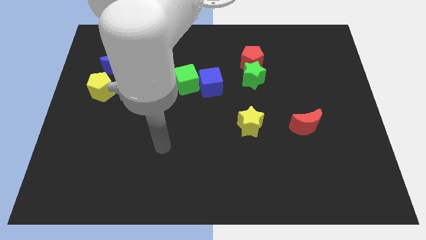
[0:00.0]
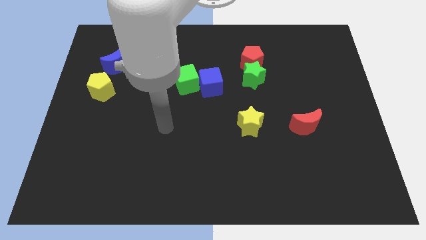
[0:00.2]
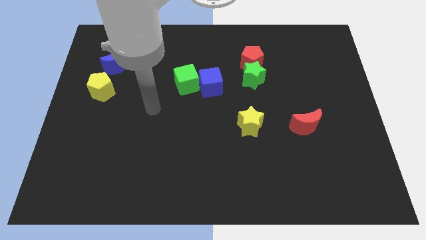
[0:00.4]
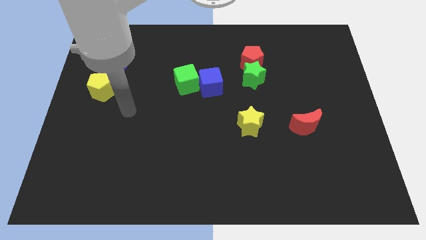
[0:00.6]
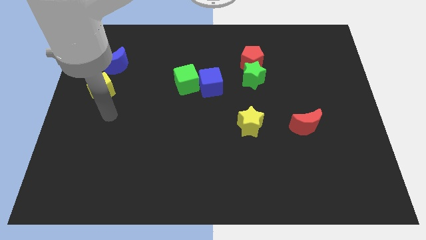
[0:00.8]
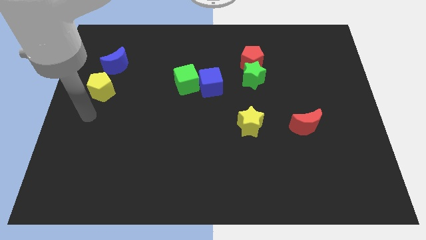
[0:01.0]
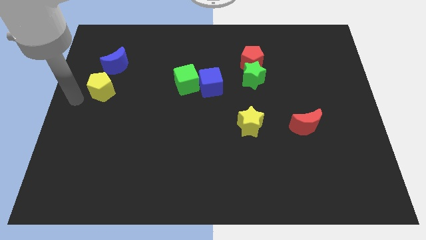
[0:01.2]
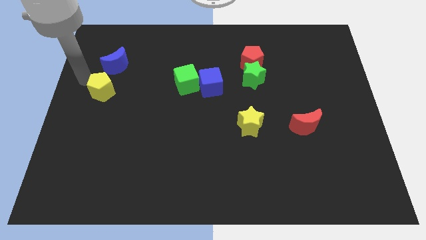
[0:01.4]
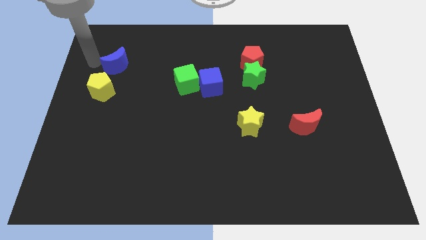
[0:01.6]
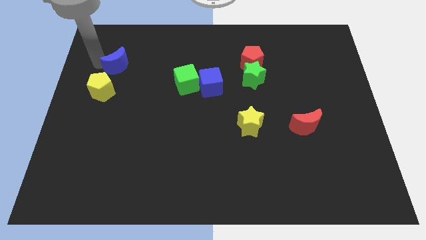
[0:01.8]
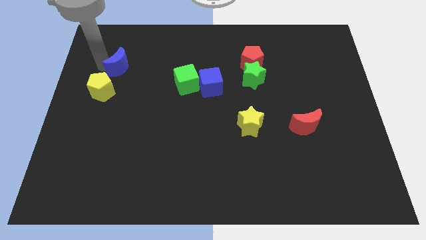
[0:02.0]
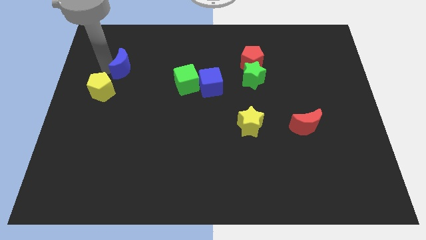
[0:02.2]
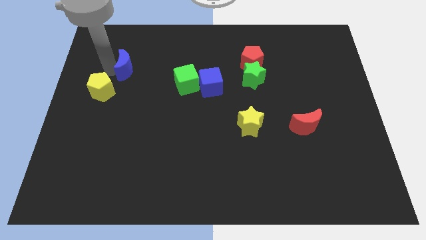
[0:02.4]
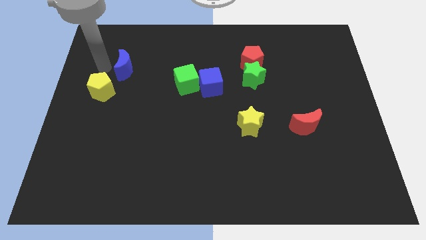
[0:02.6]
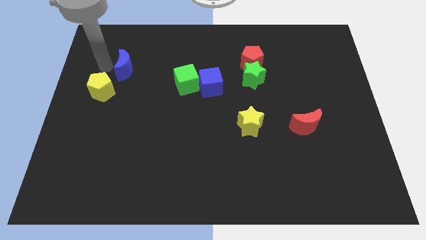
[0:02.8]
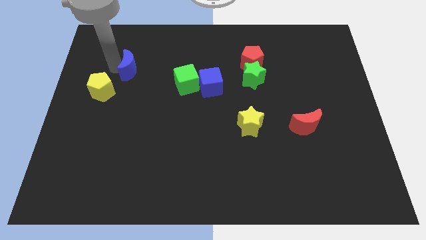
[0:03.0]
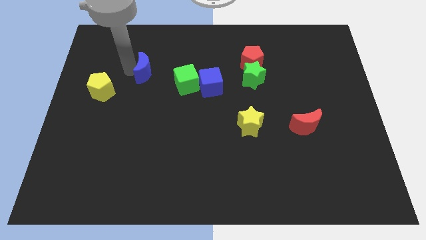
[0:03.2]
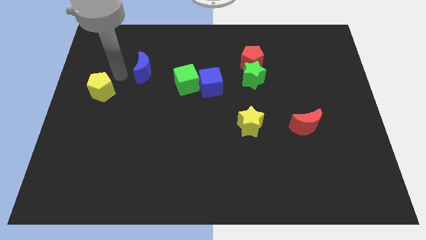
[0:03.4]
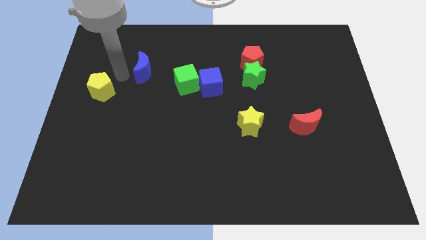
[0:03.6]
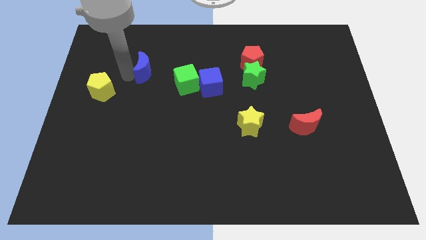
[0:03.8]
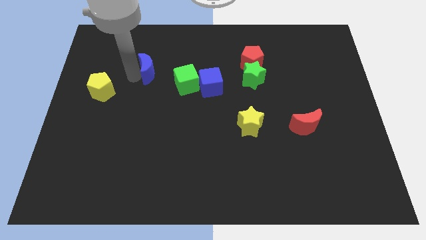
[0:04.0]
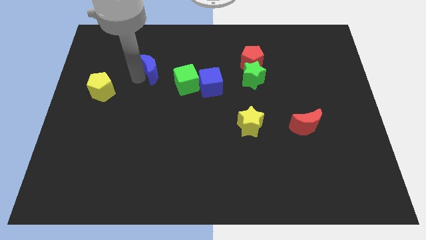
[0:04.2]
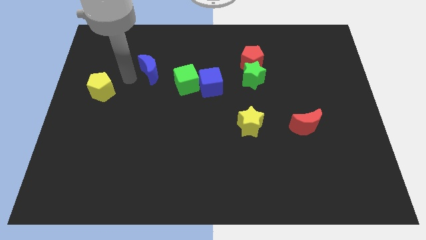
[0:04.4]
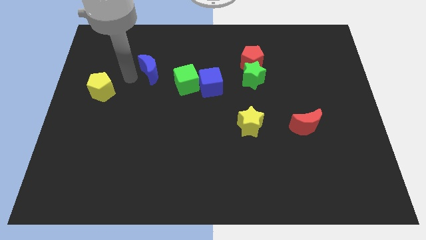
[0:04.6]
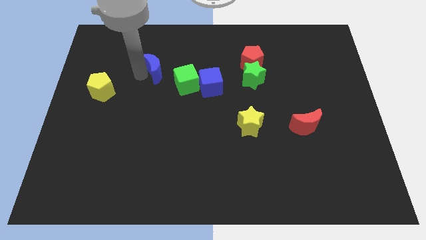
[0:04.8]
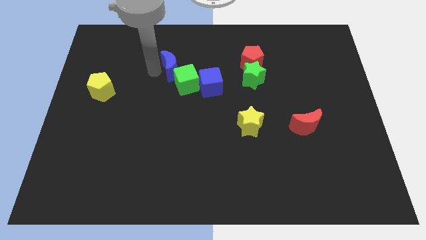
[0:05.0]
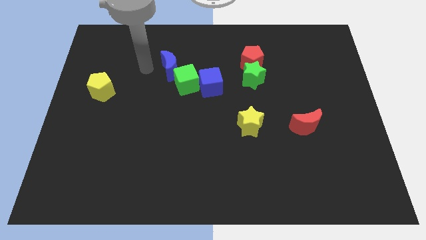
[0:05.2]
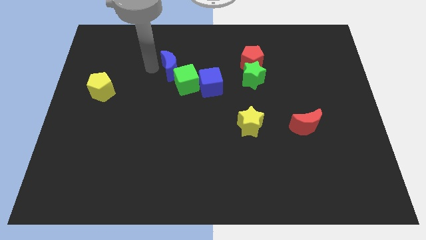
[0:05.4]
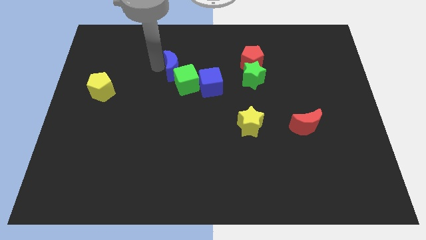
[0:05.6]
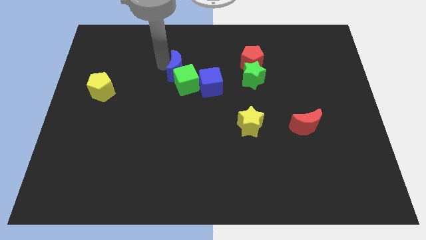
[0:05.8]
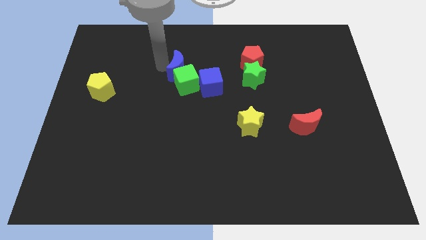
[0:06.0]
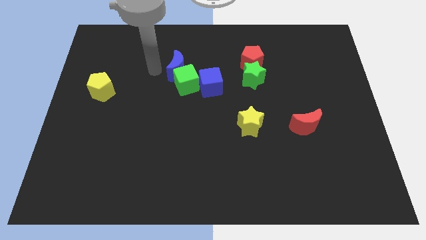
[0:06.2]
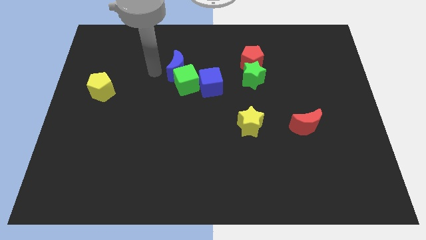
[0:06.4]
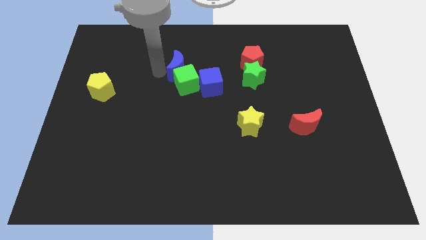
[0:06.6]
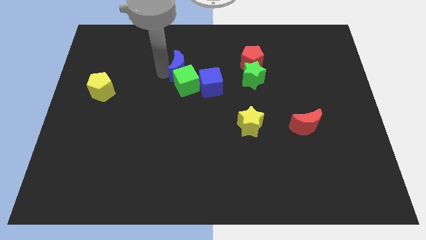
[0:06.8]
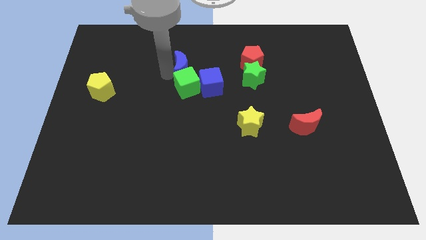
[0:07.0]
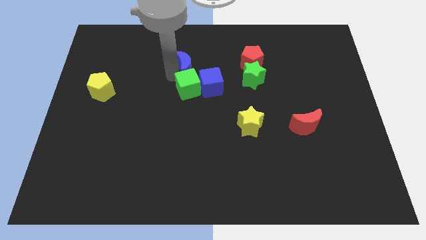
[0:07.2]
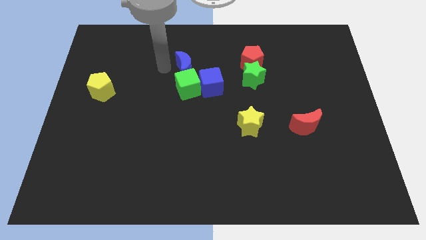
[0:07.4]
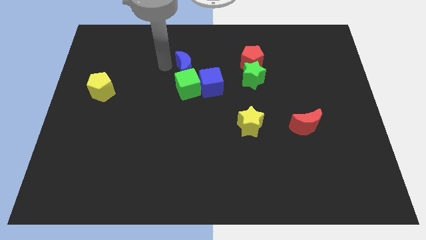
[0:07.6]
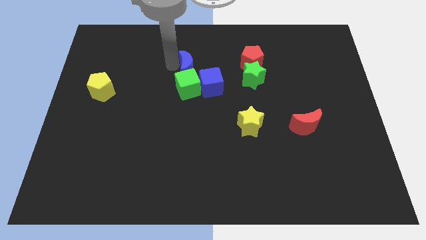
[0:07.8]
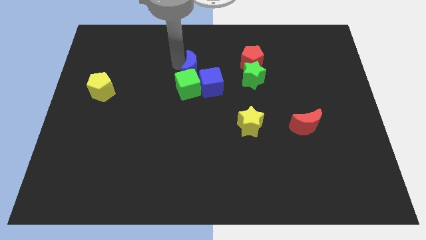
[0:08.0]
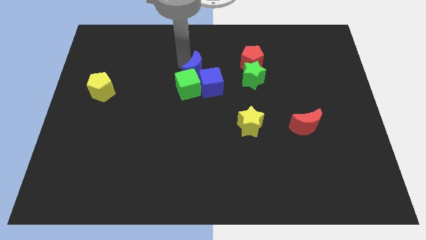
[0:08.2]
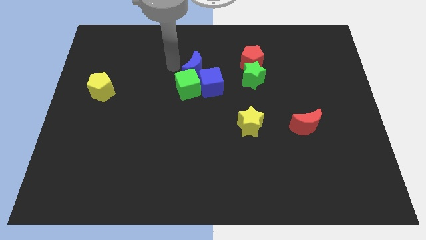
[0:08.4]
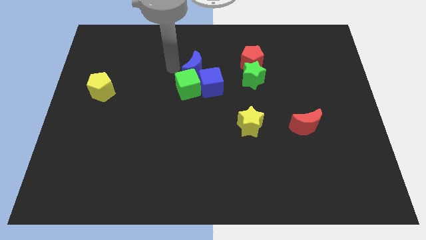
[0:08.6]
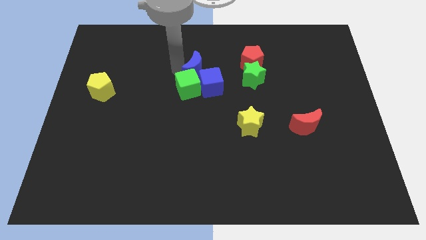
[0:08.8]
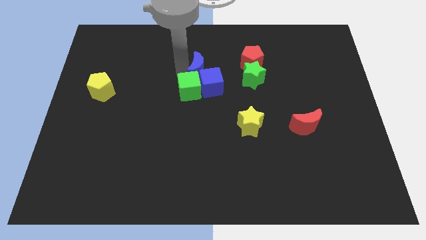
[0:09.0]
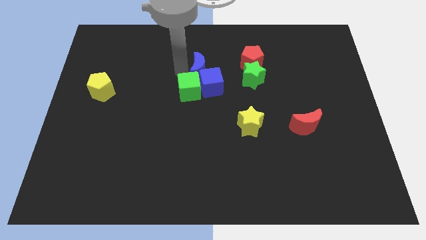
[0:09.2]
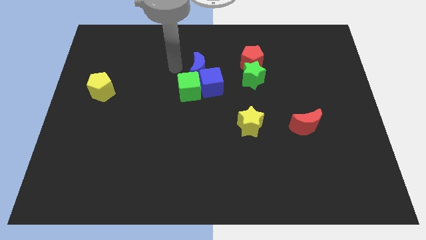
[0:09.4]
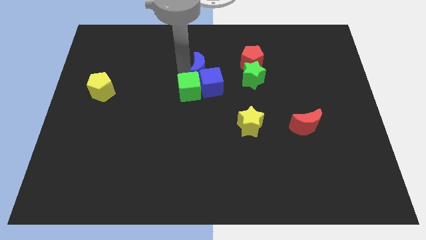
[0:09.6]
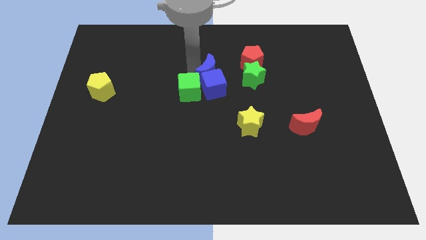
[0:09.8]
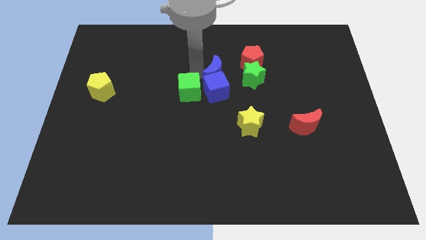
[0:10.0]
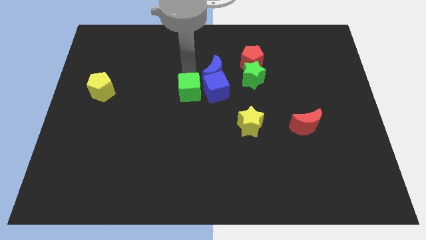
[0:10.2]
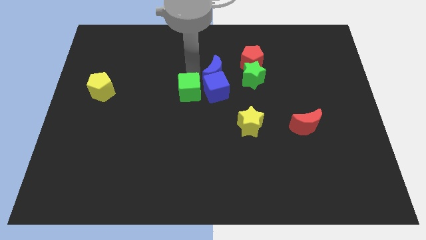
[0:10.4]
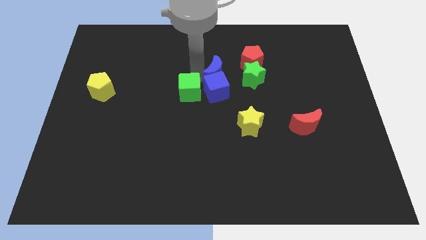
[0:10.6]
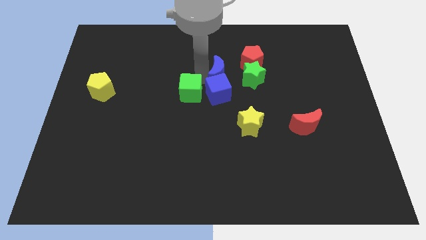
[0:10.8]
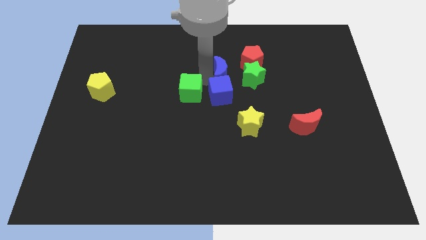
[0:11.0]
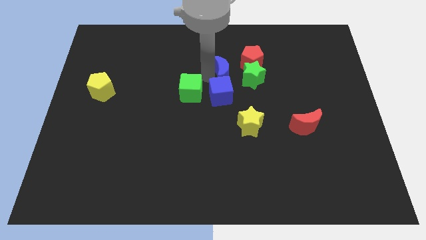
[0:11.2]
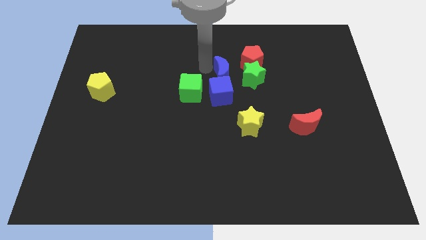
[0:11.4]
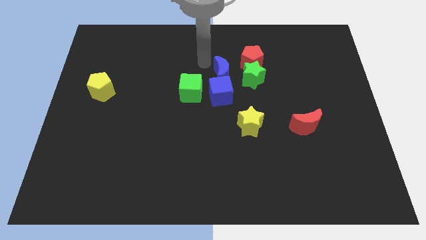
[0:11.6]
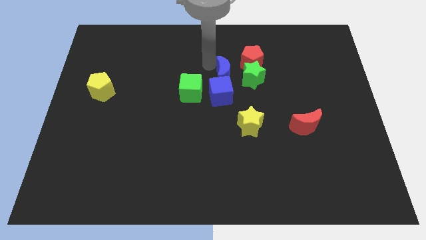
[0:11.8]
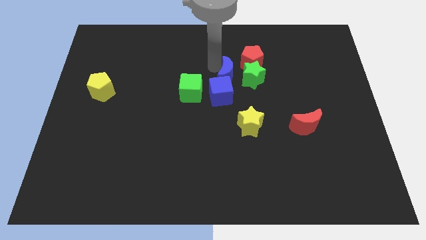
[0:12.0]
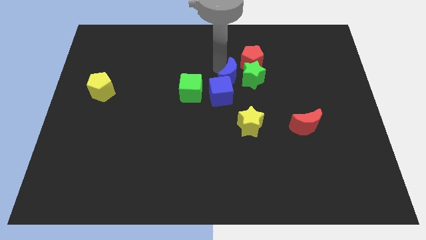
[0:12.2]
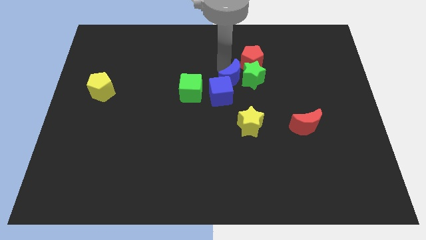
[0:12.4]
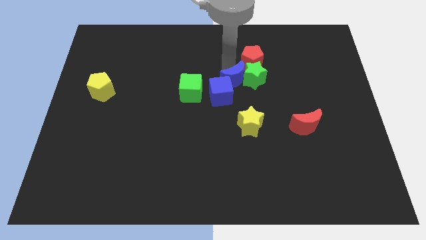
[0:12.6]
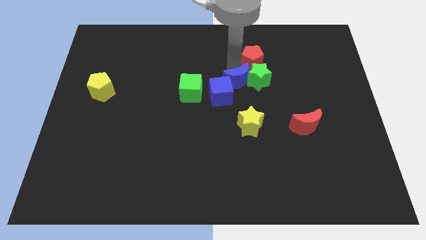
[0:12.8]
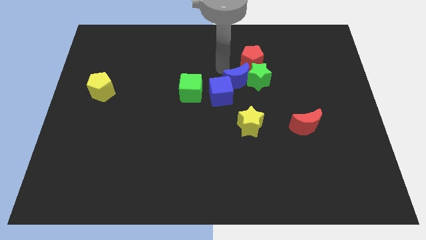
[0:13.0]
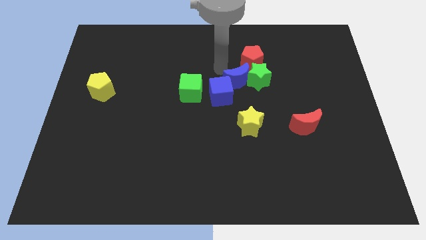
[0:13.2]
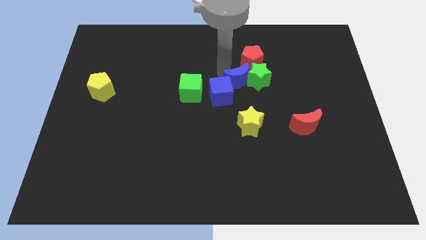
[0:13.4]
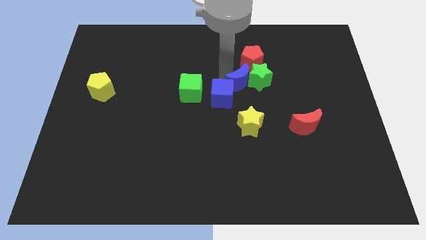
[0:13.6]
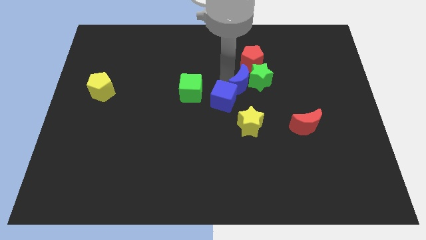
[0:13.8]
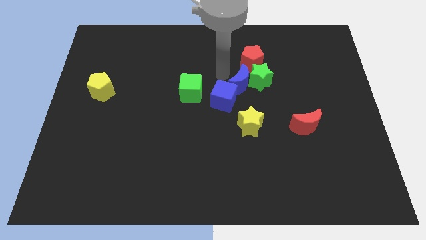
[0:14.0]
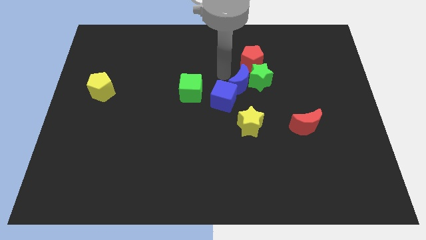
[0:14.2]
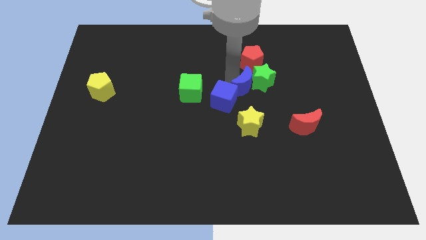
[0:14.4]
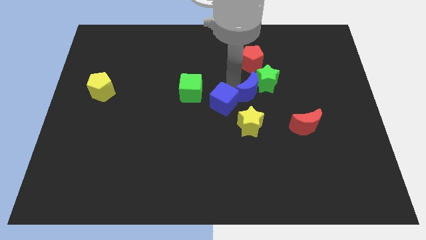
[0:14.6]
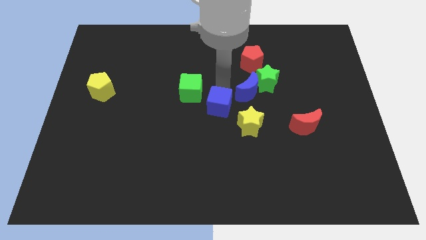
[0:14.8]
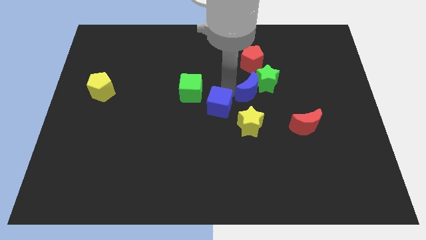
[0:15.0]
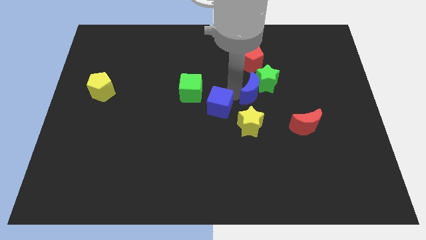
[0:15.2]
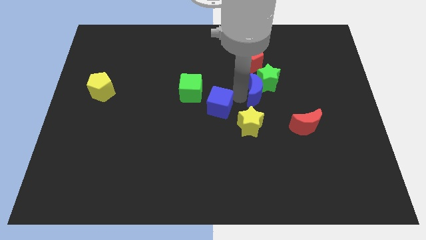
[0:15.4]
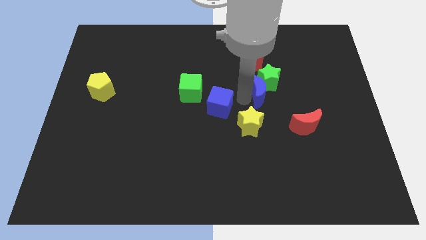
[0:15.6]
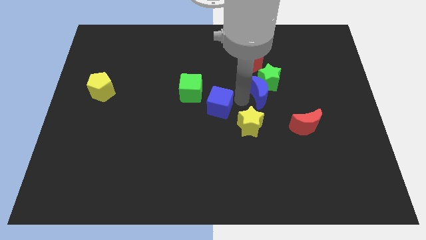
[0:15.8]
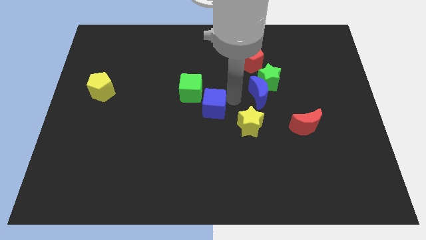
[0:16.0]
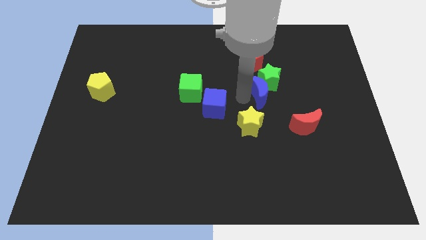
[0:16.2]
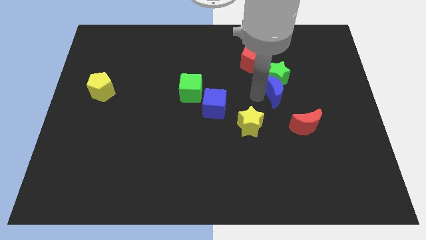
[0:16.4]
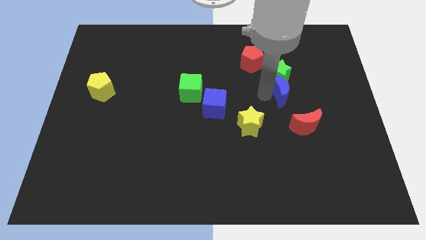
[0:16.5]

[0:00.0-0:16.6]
push the blue moon to the top side of the red moon
